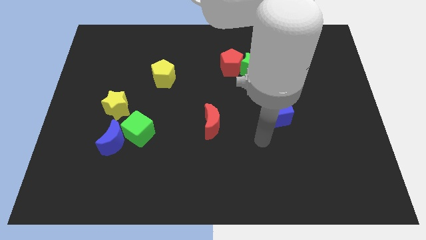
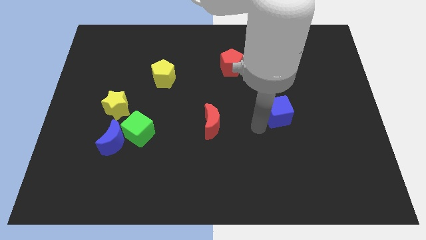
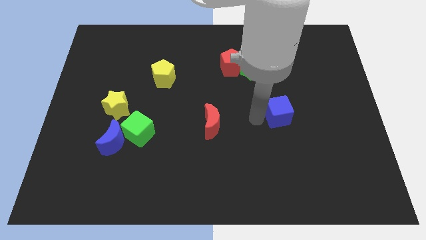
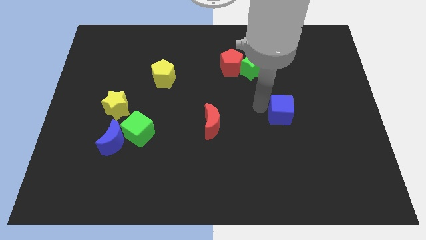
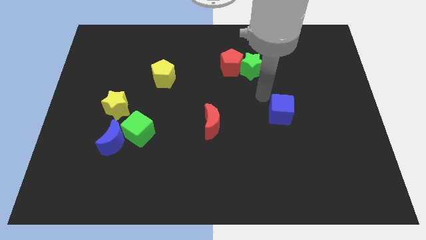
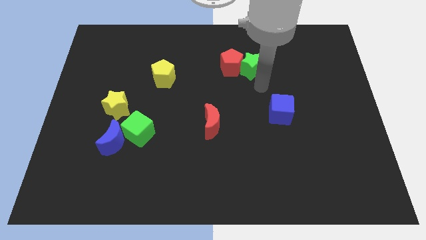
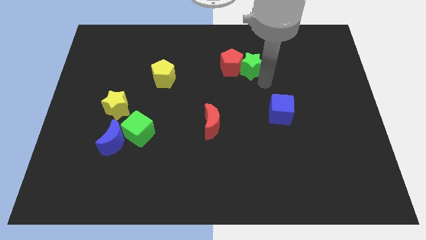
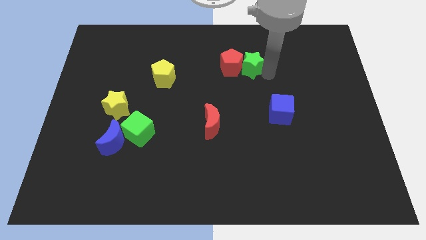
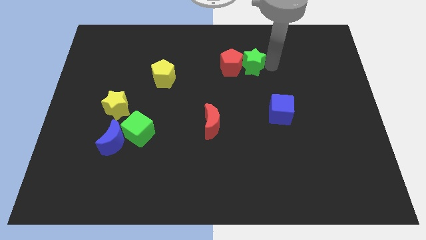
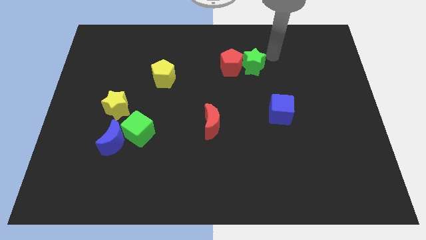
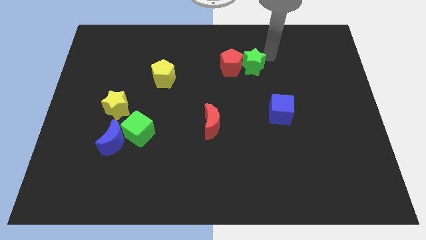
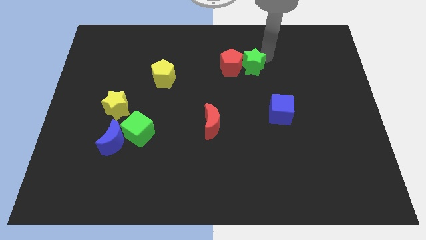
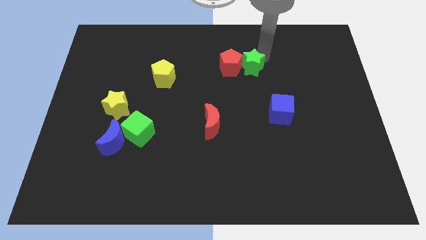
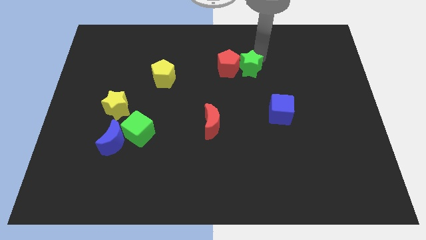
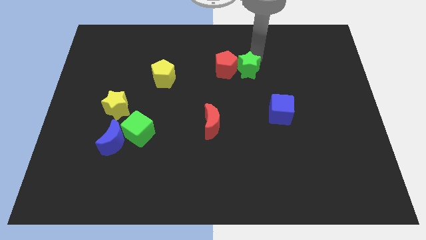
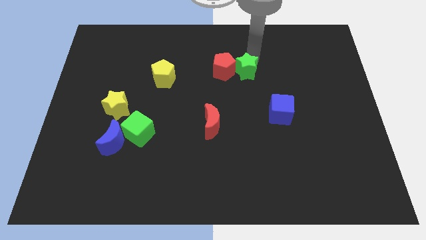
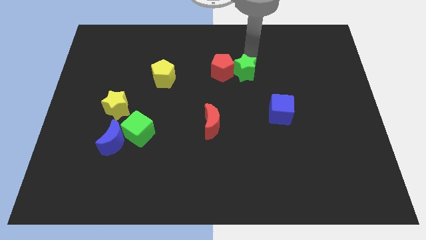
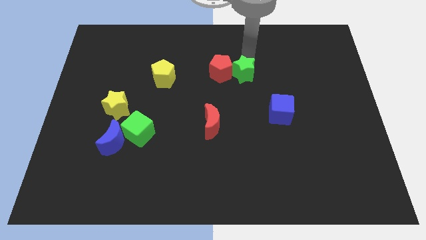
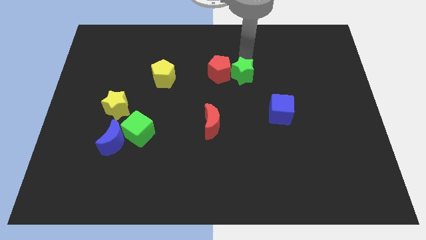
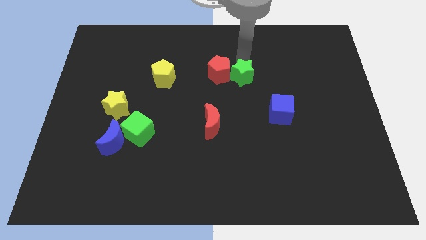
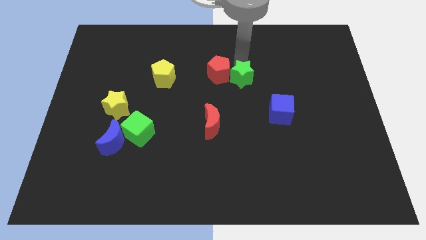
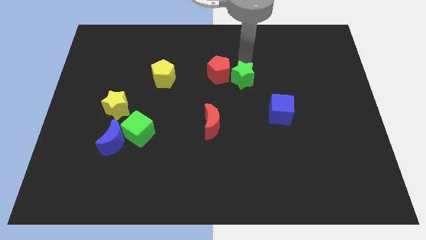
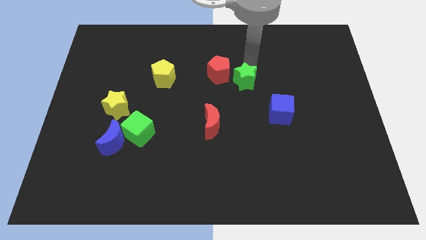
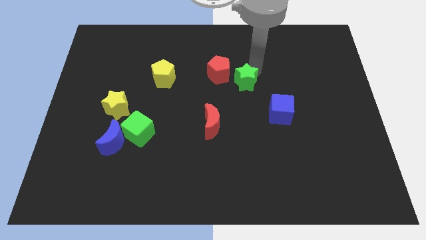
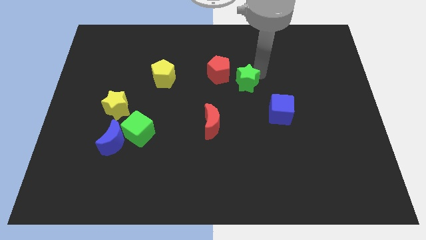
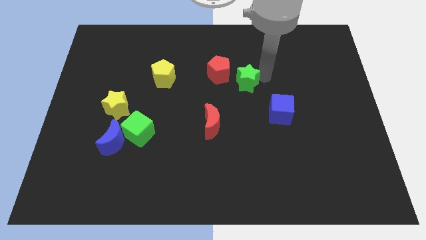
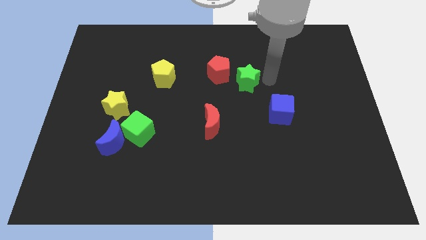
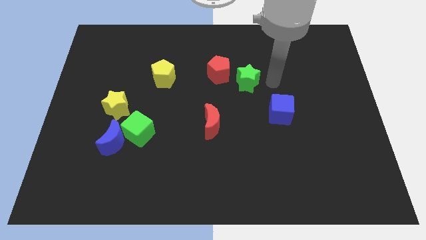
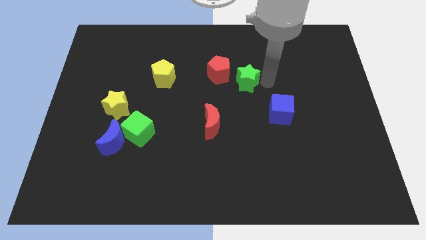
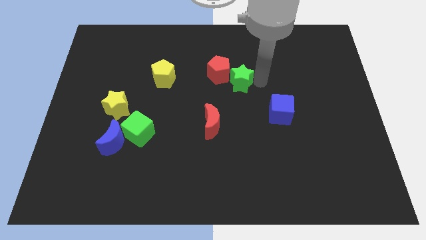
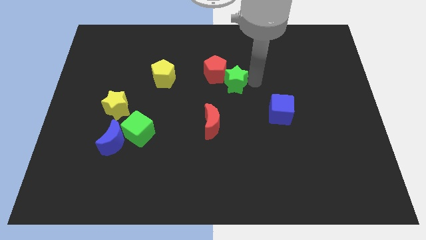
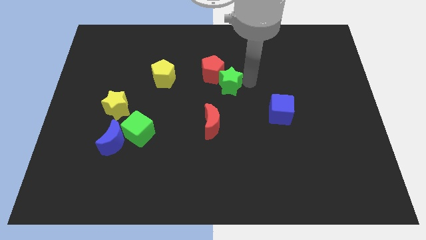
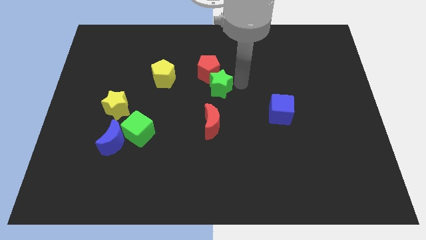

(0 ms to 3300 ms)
slide the green star somewhat left

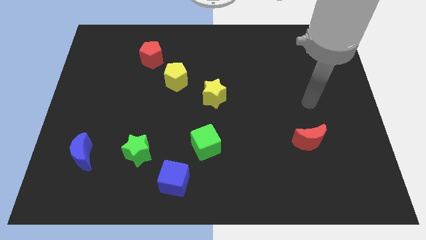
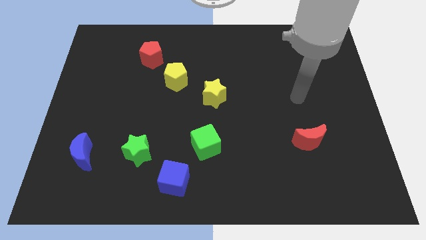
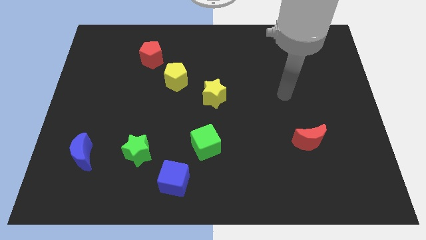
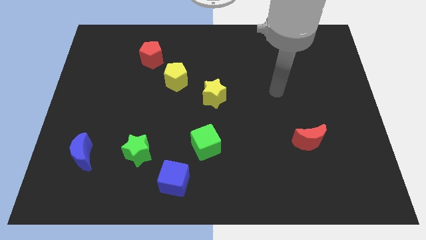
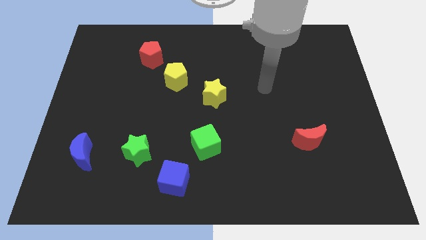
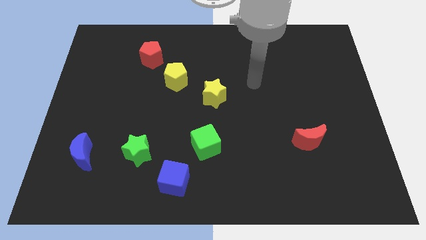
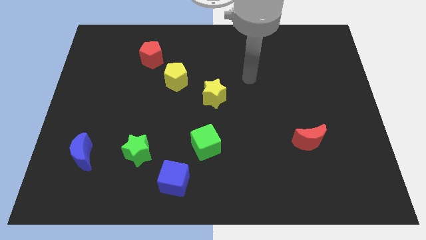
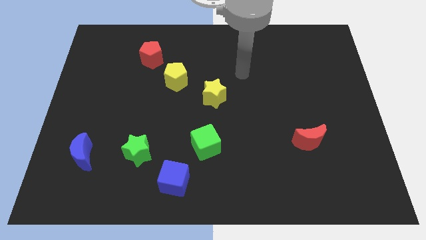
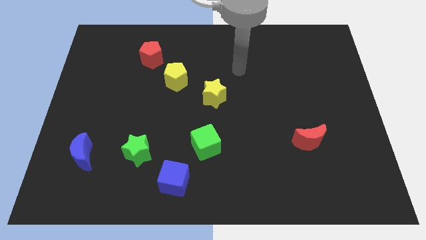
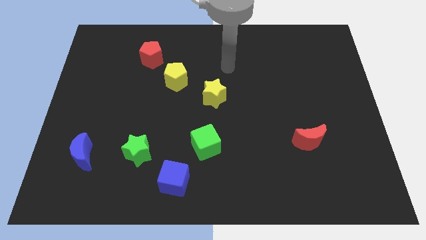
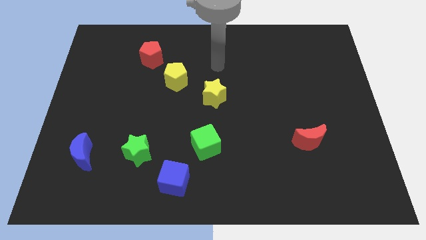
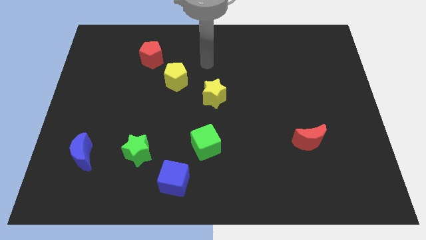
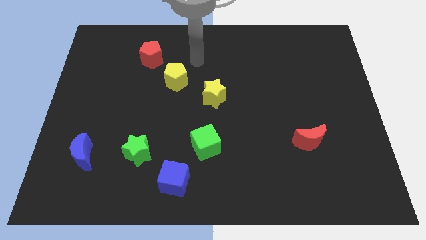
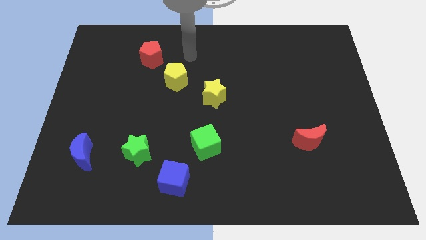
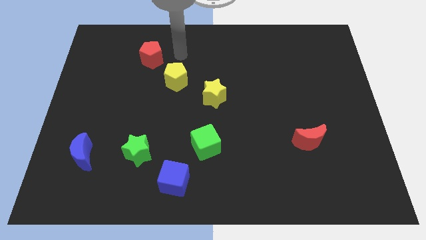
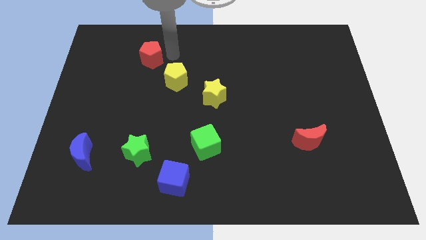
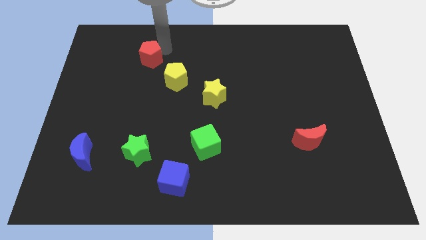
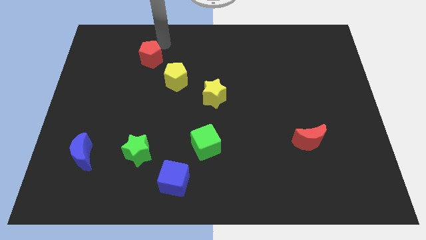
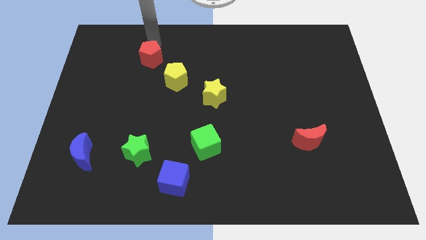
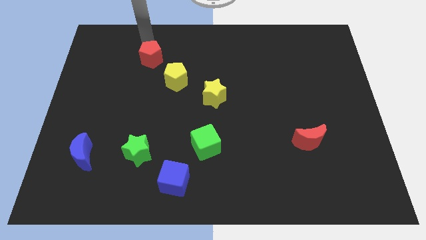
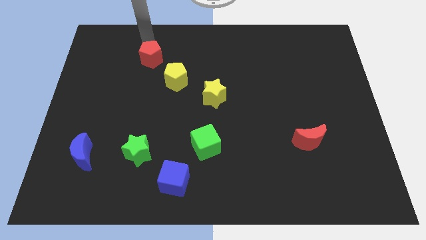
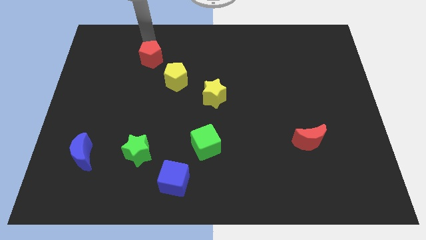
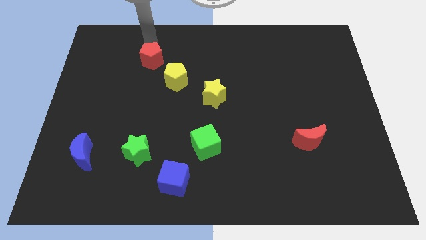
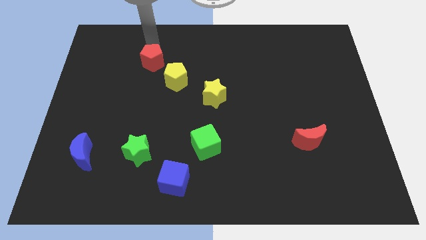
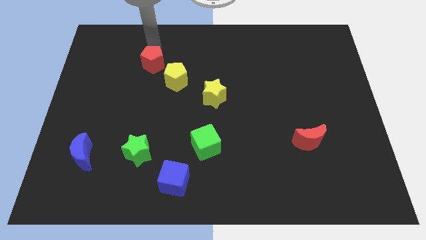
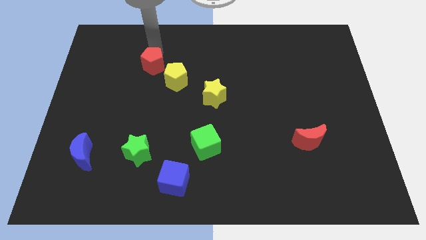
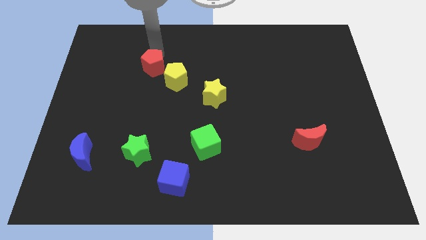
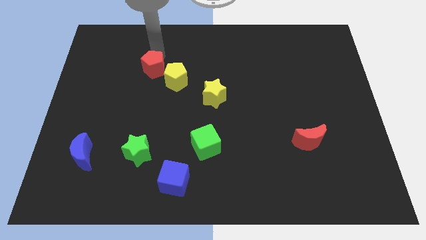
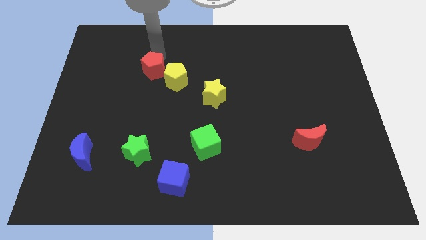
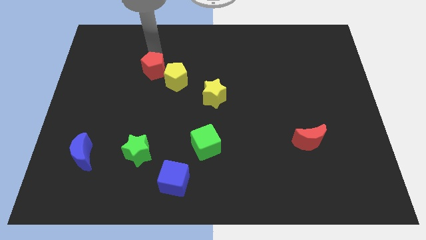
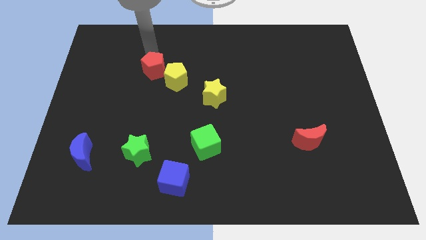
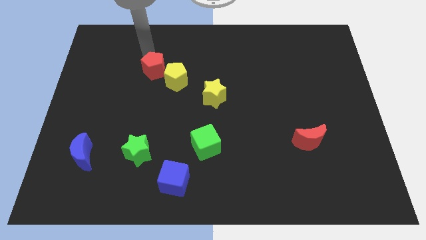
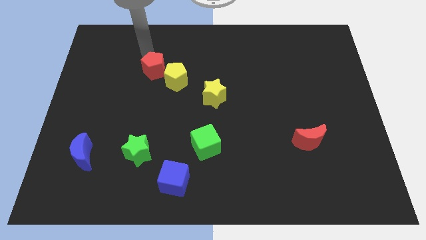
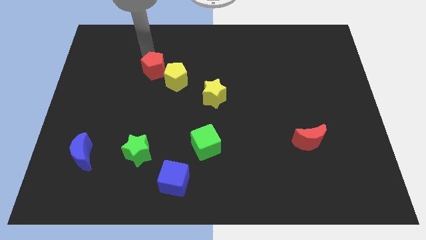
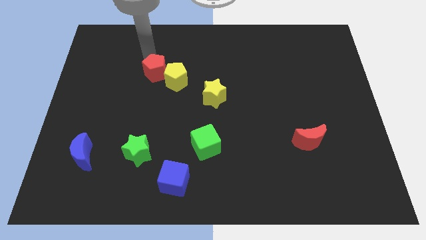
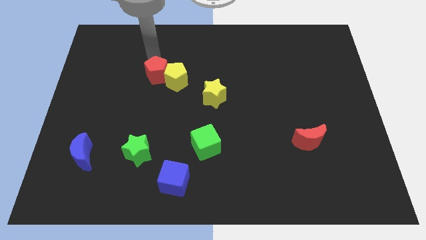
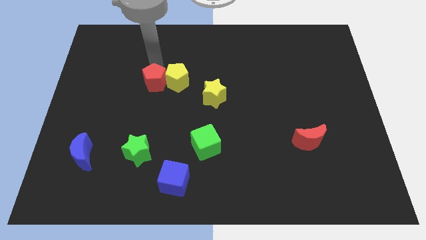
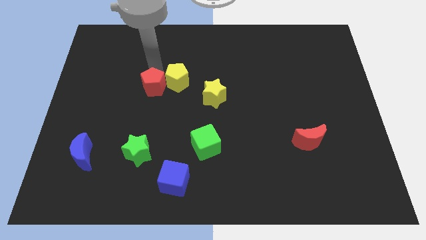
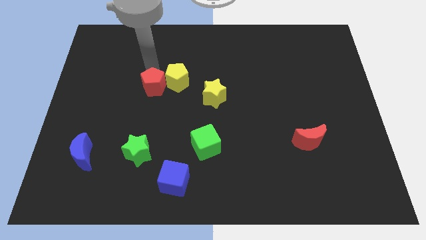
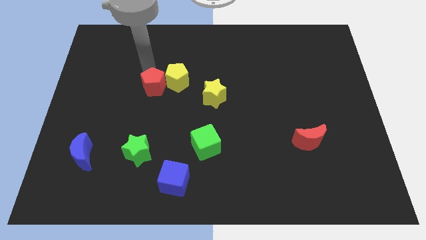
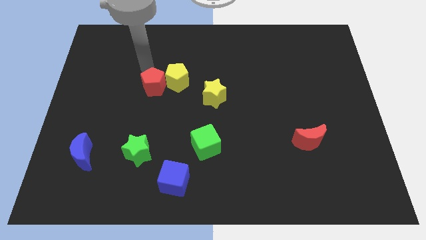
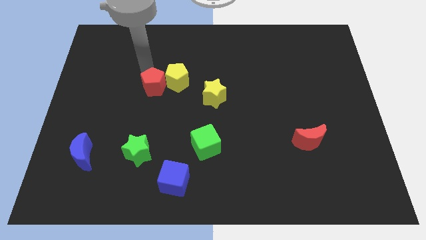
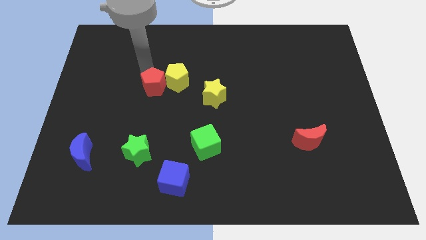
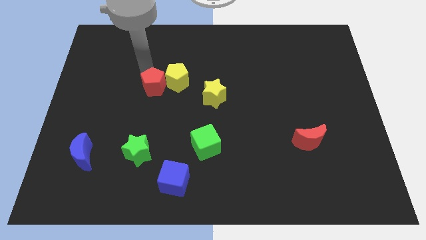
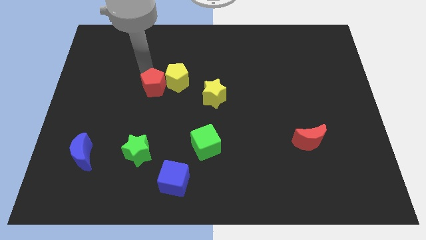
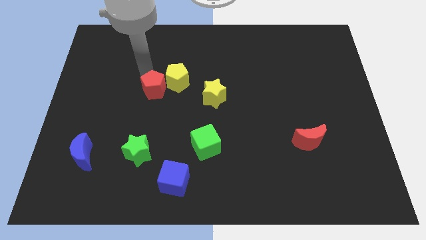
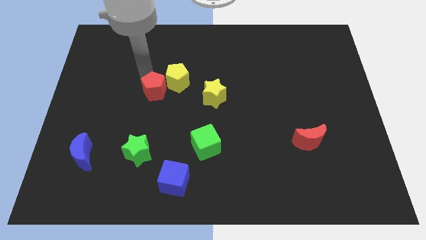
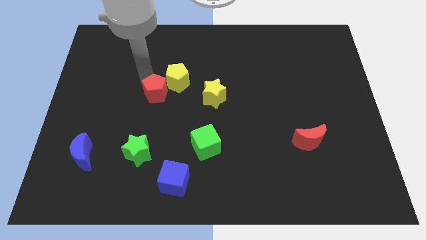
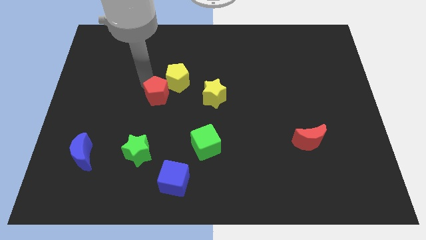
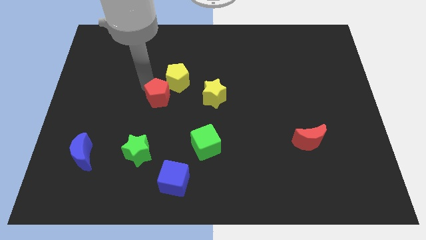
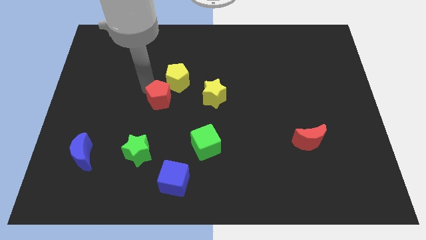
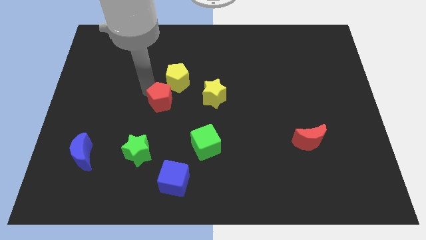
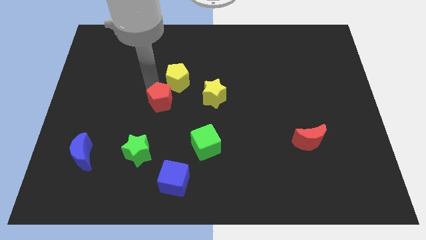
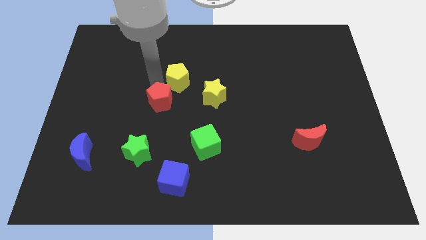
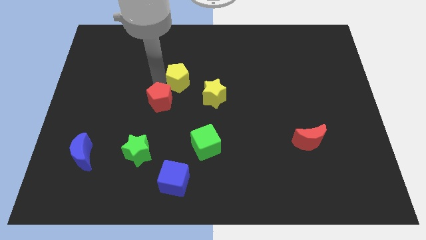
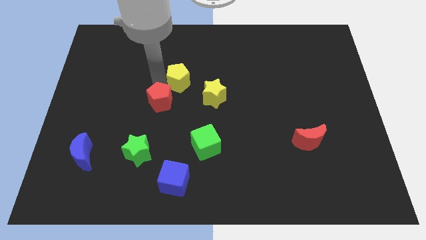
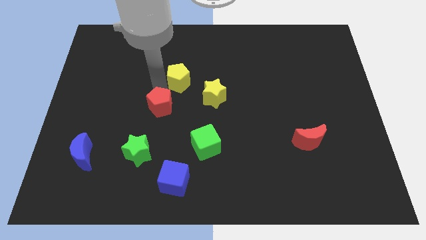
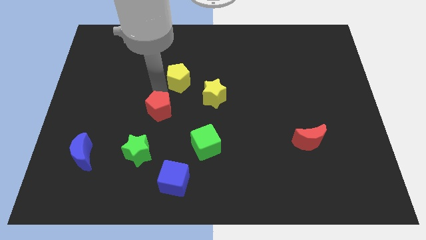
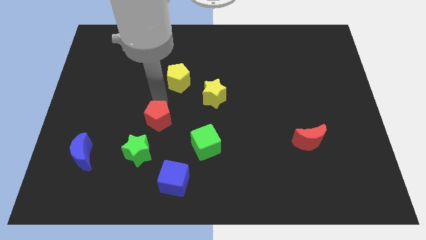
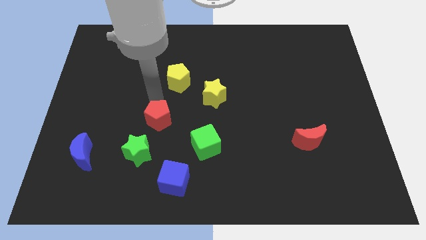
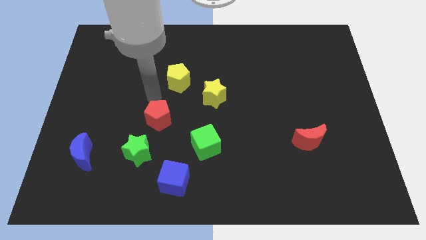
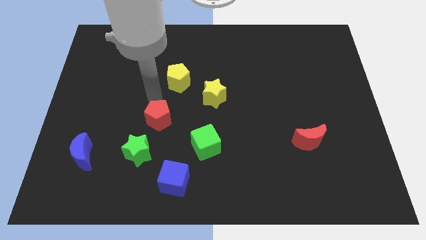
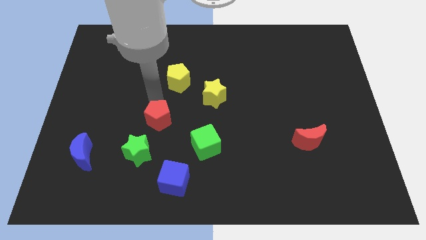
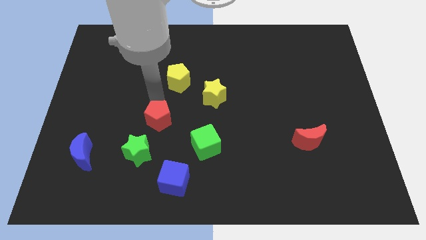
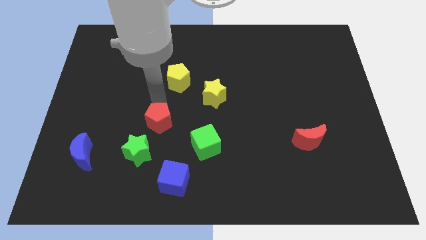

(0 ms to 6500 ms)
move the red pentagon down
